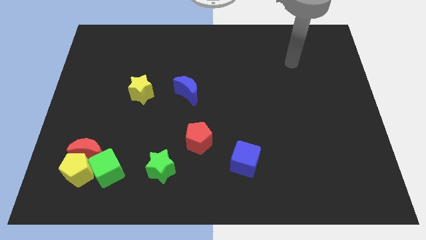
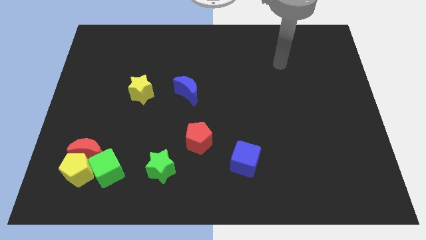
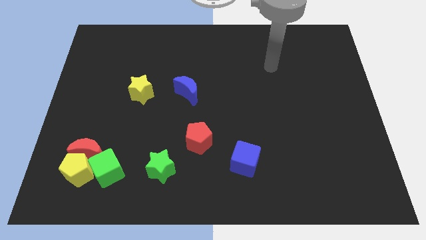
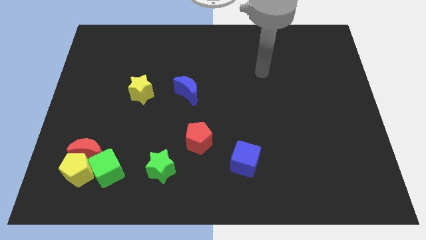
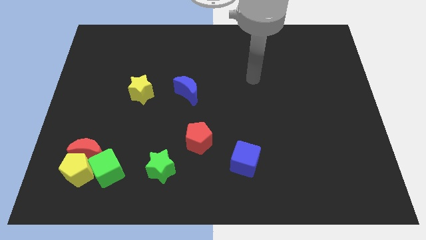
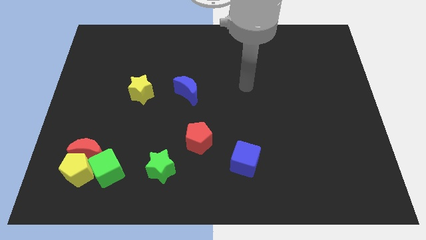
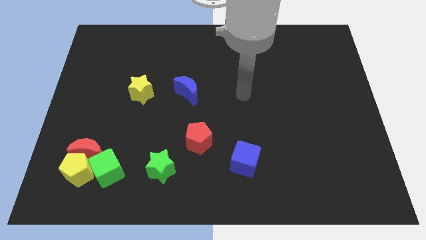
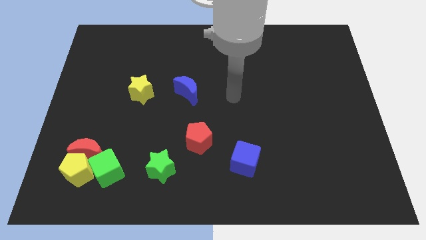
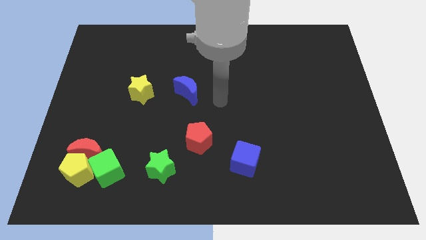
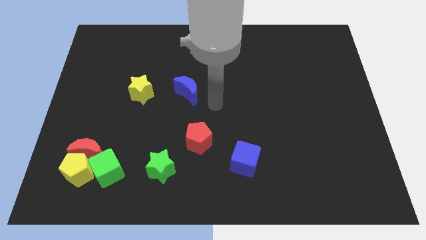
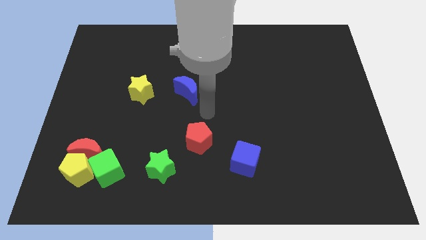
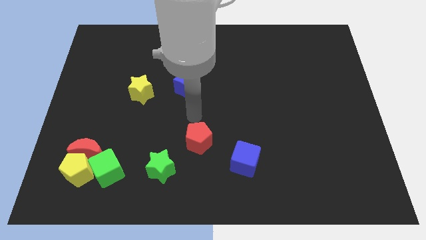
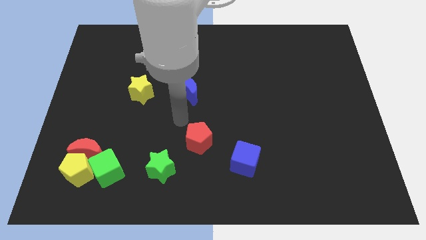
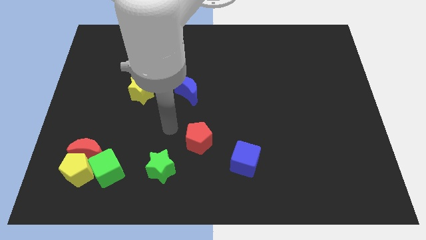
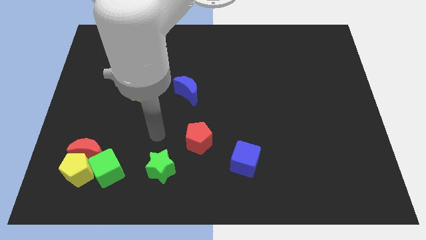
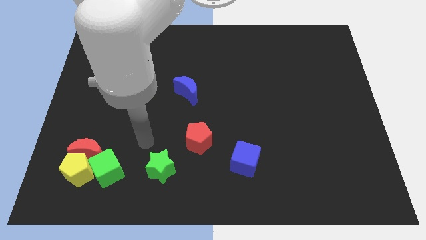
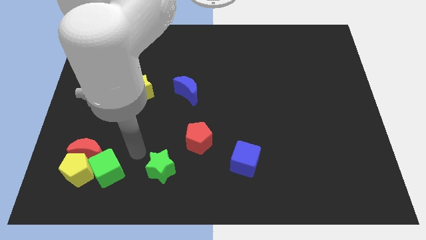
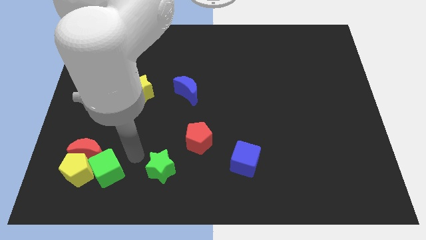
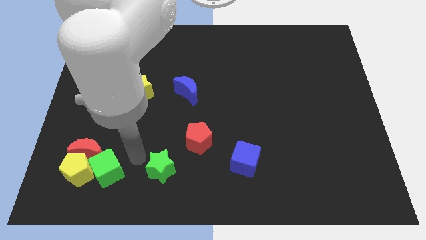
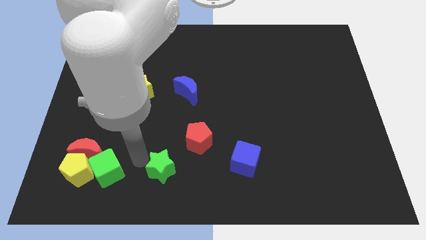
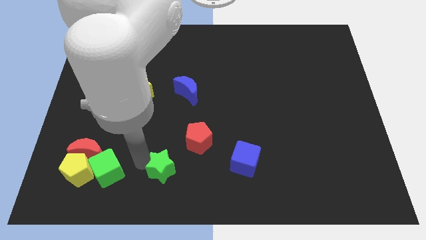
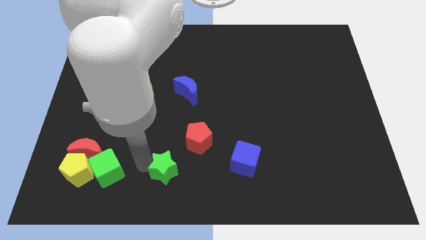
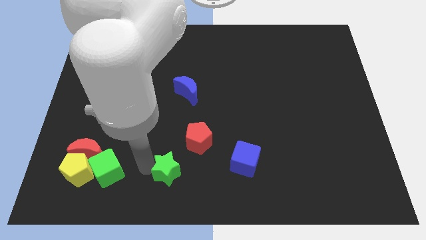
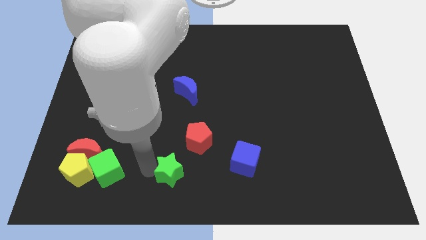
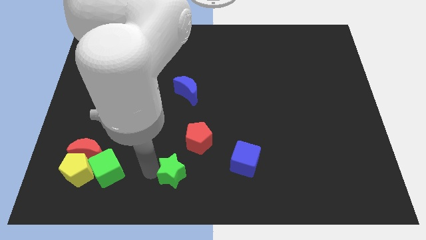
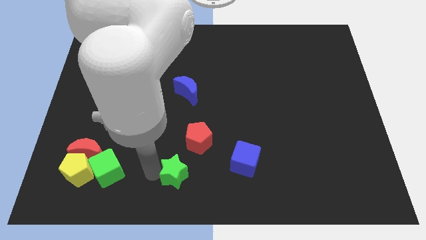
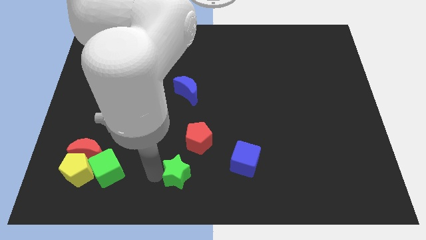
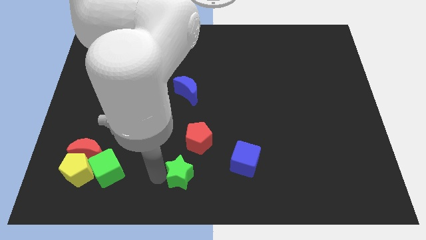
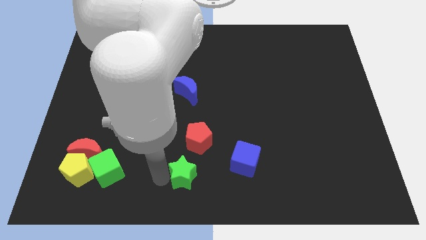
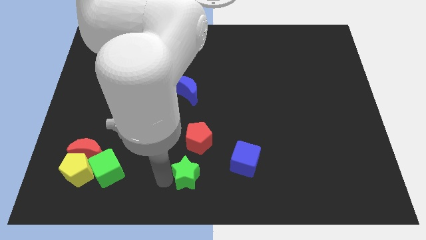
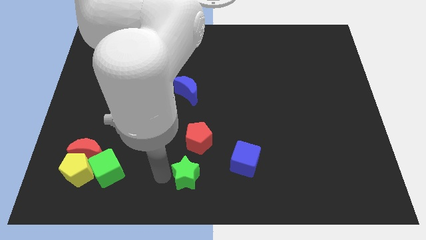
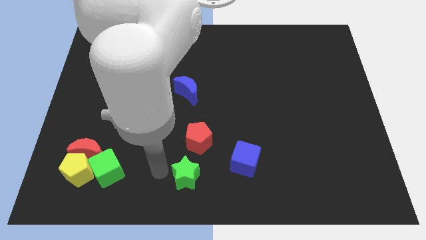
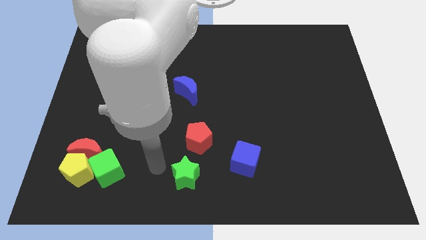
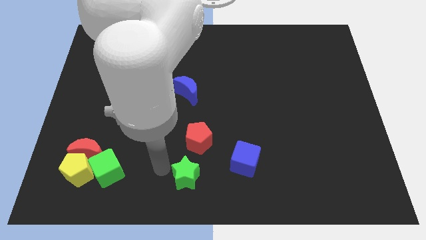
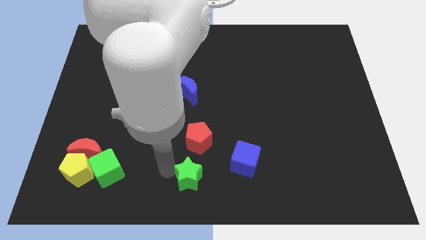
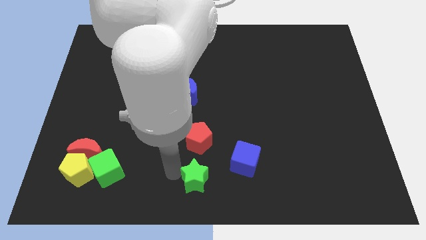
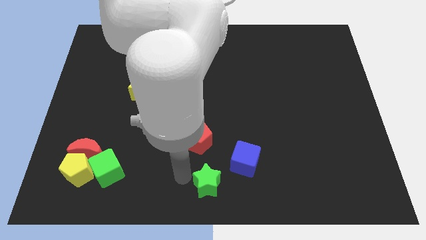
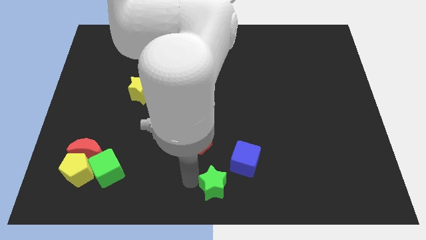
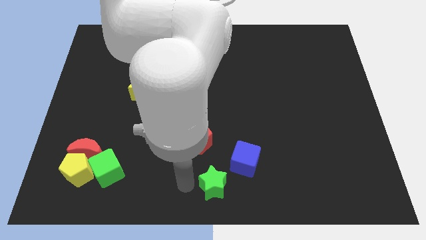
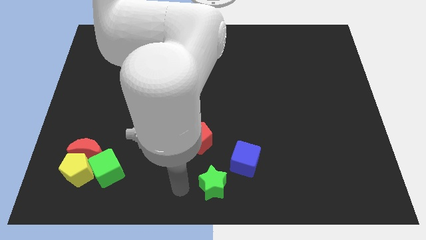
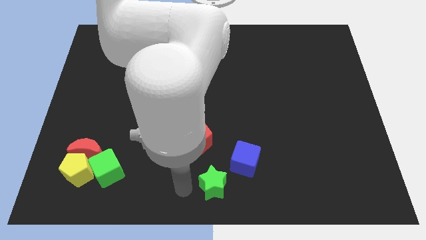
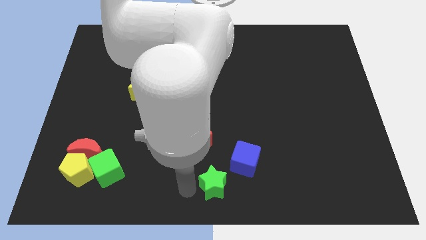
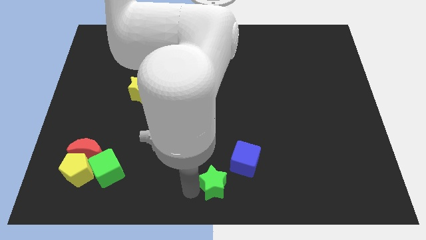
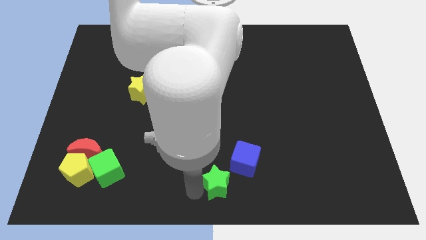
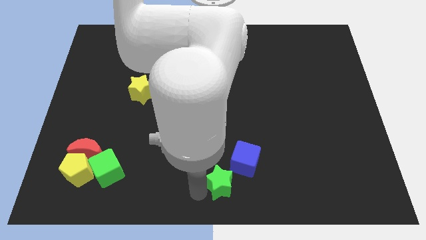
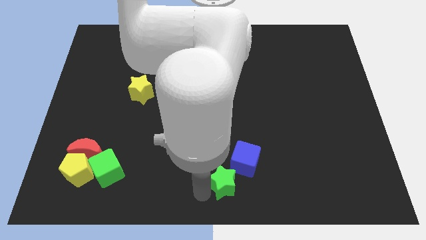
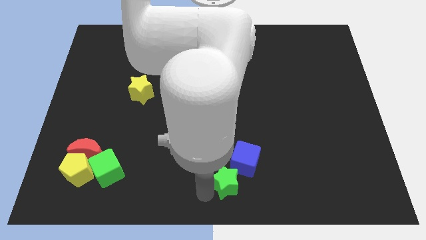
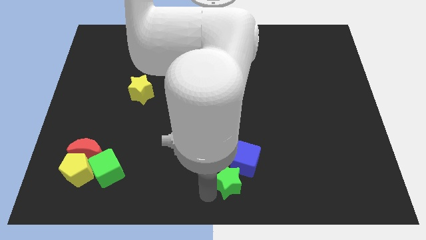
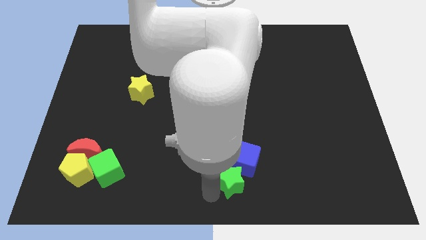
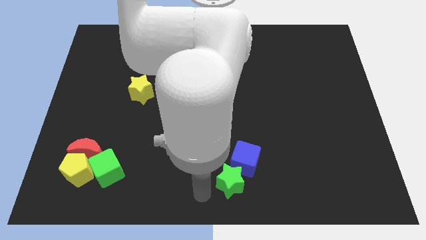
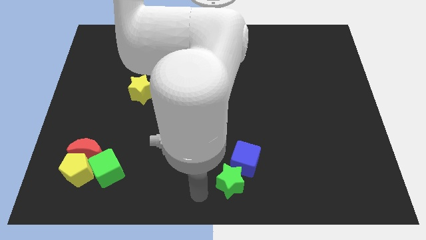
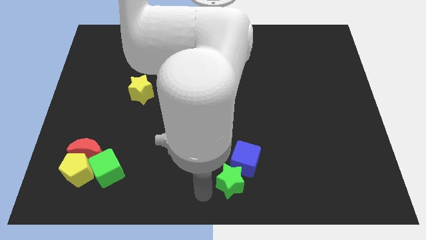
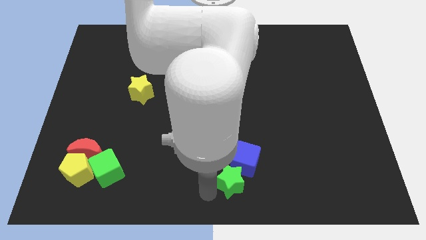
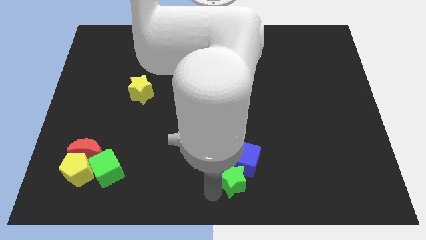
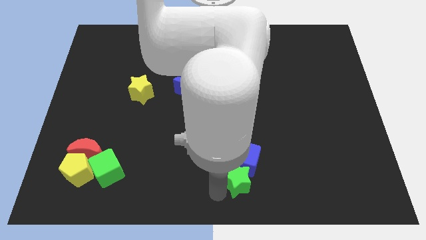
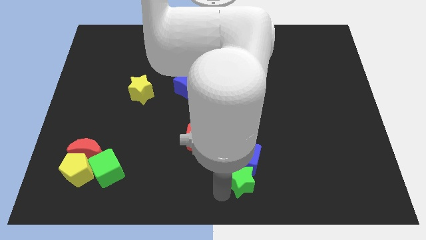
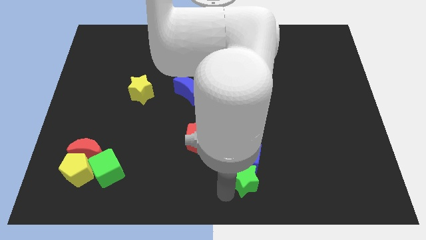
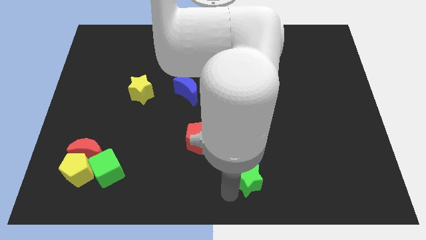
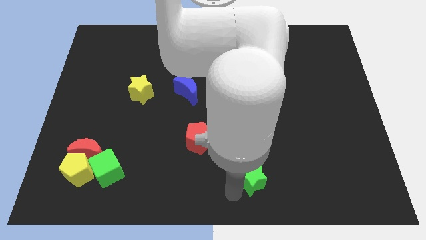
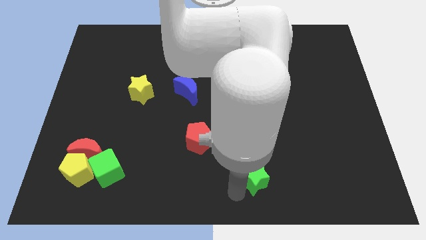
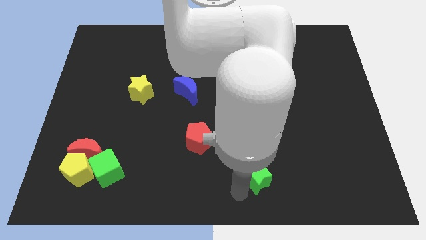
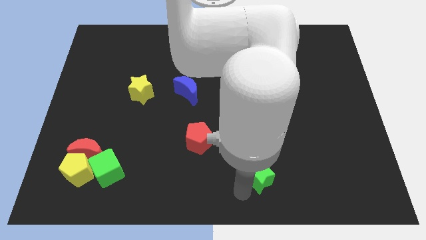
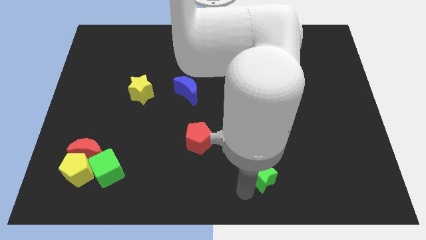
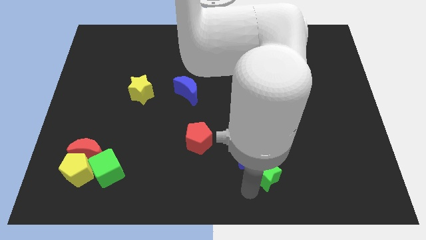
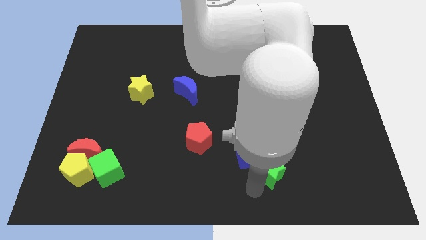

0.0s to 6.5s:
put the green star to the right of the blue cube

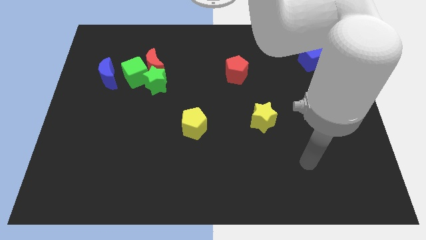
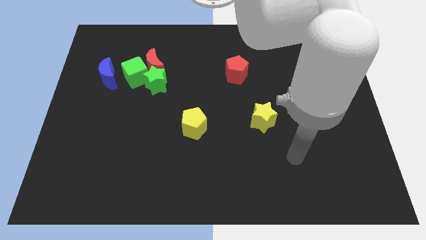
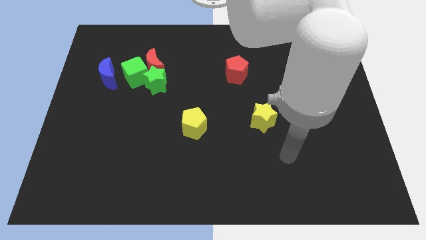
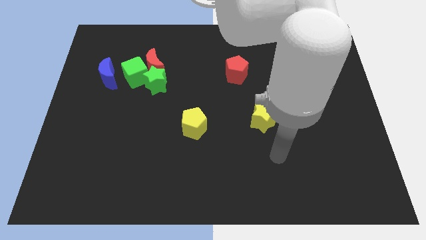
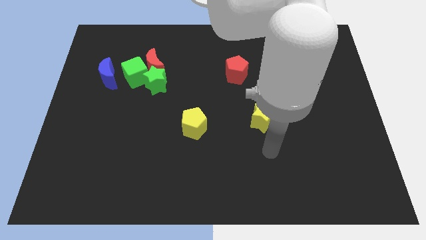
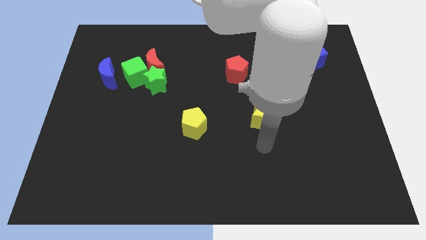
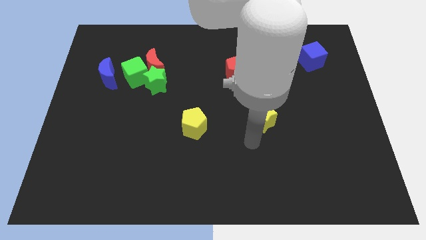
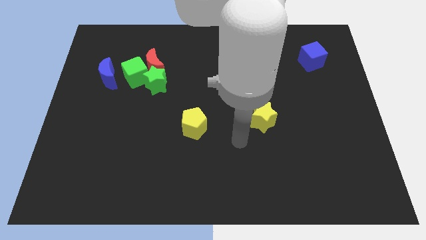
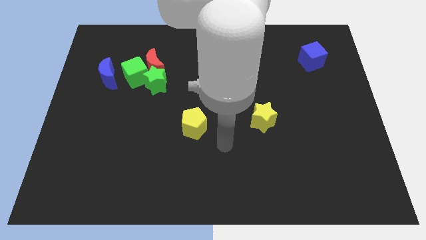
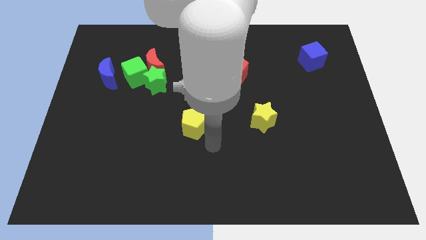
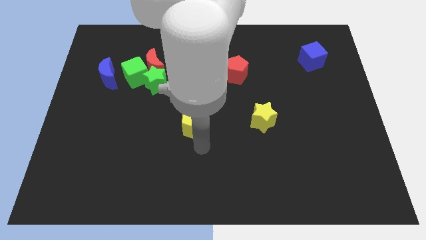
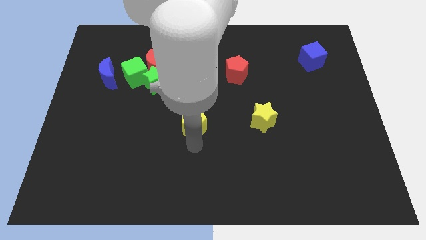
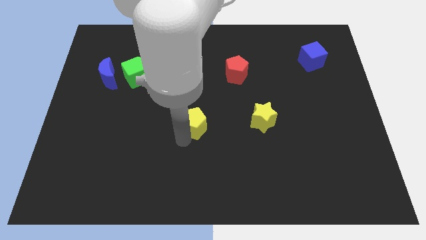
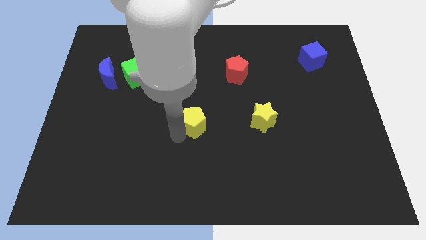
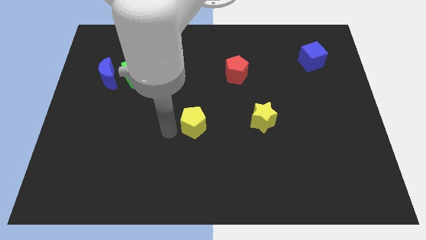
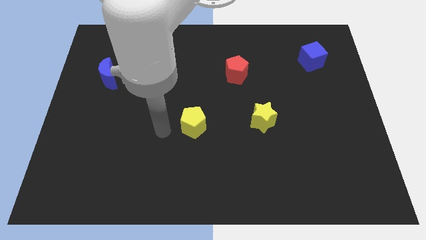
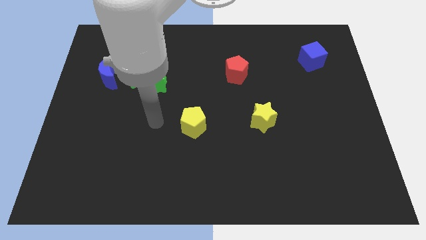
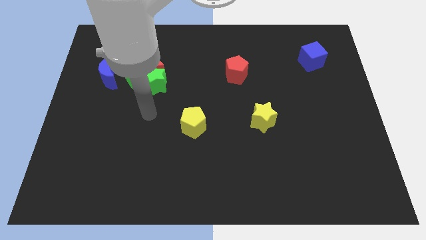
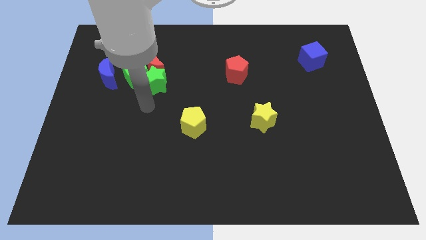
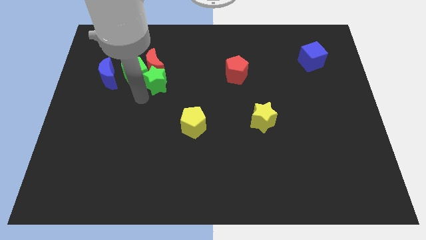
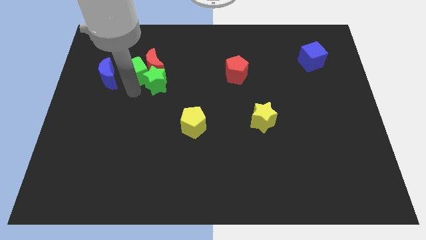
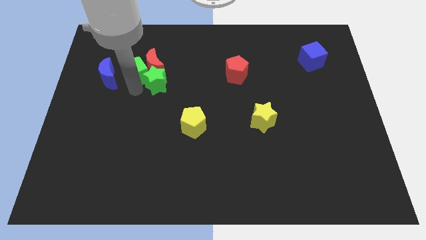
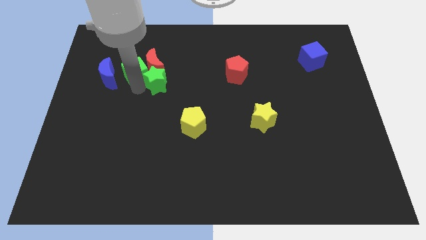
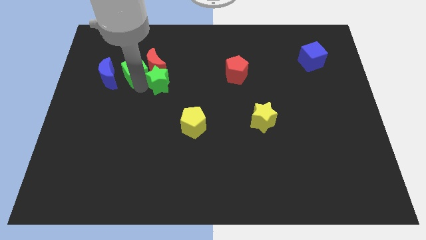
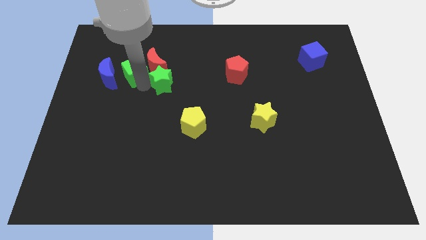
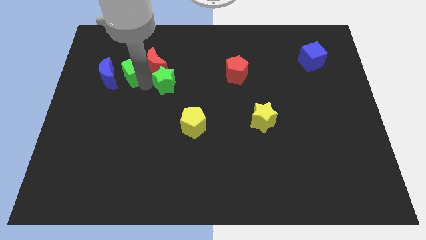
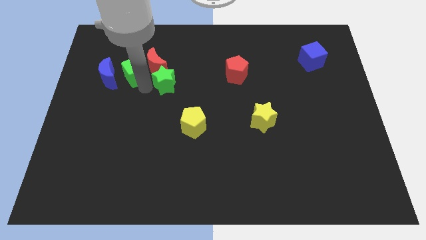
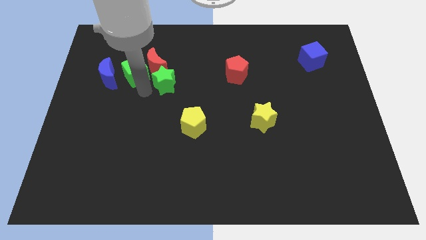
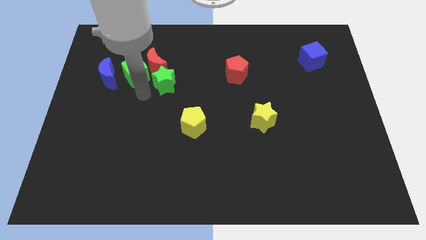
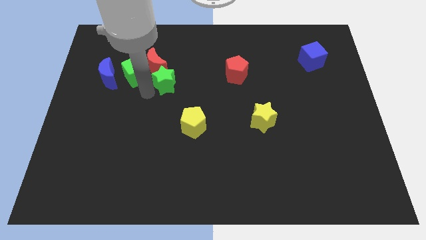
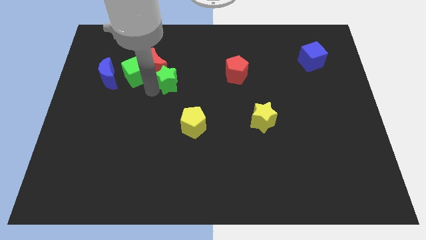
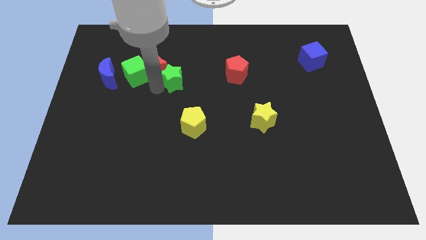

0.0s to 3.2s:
put the green star right of the red moon
